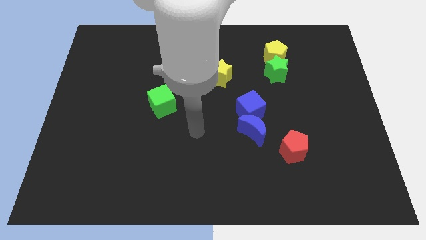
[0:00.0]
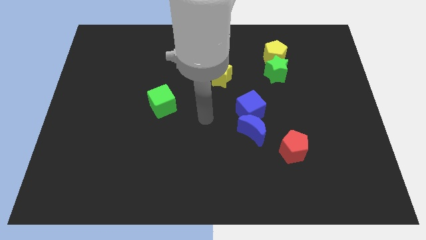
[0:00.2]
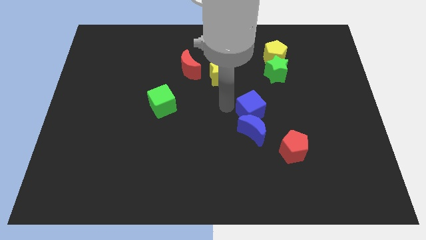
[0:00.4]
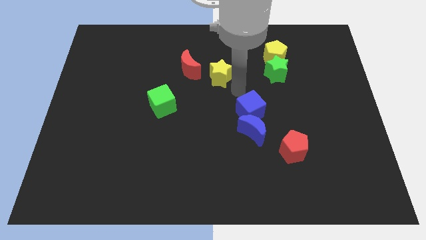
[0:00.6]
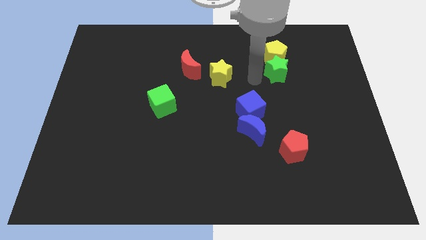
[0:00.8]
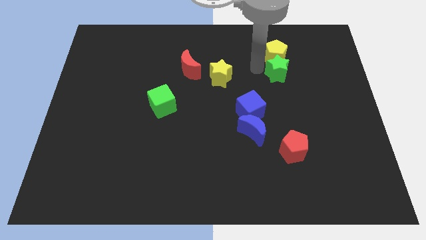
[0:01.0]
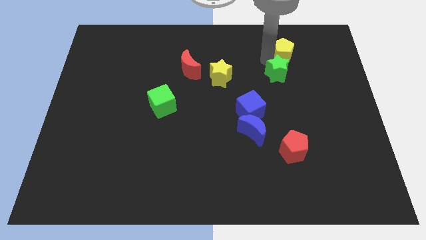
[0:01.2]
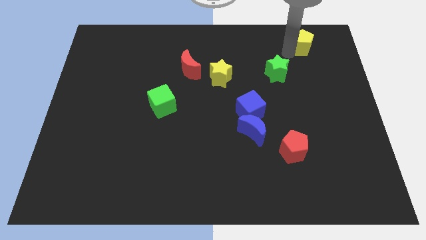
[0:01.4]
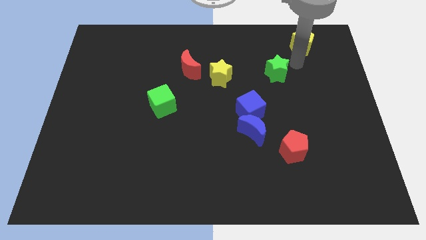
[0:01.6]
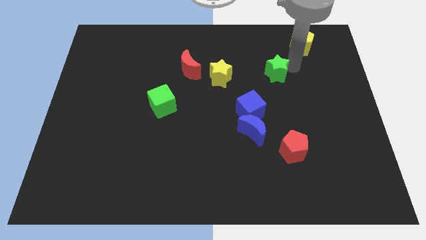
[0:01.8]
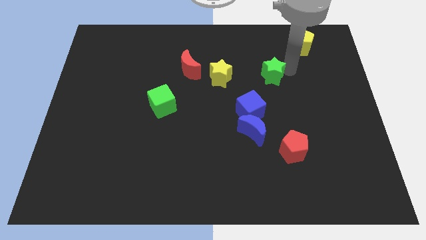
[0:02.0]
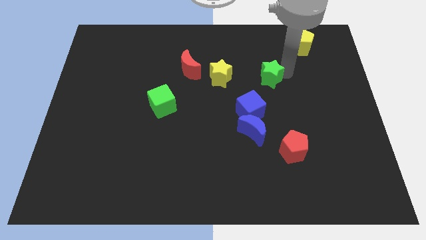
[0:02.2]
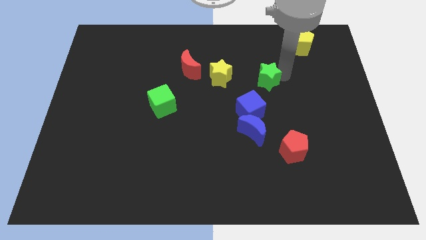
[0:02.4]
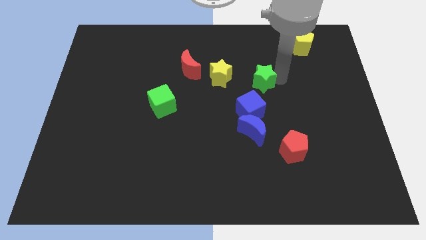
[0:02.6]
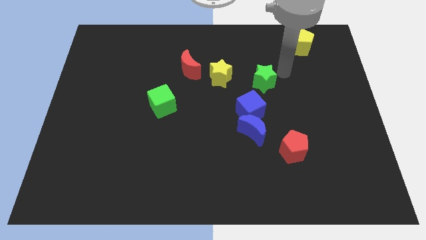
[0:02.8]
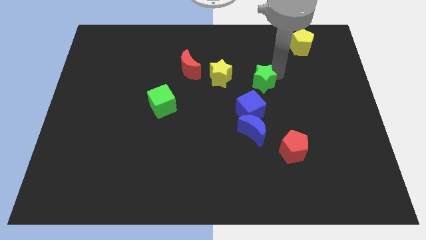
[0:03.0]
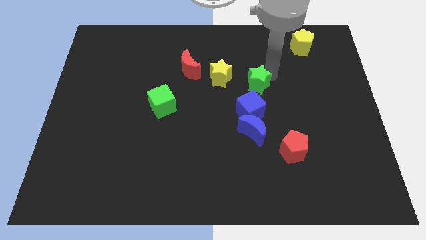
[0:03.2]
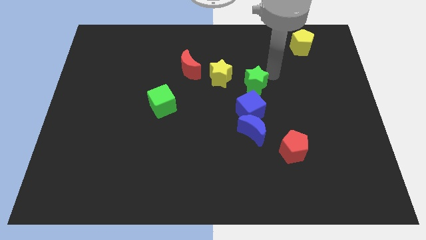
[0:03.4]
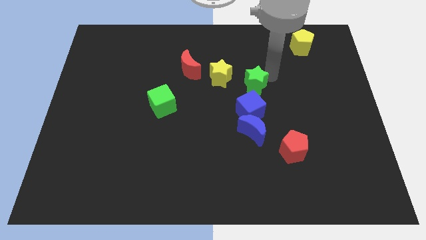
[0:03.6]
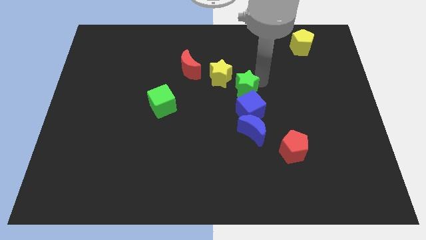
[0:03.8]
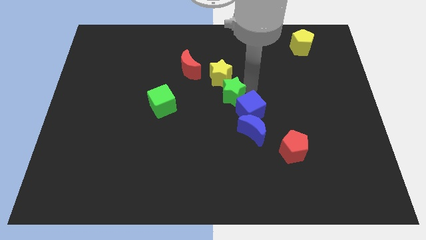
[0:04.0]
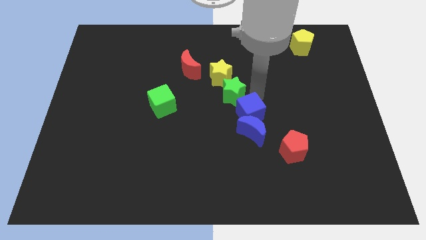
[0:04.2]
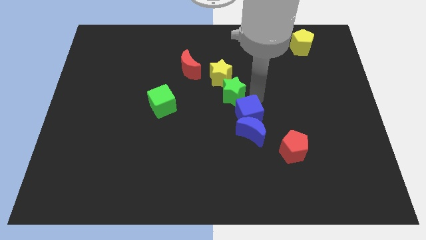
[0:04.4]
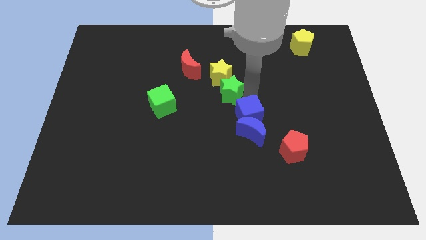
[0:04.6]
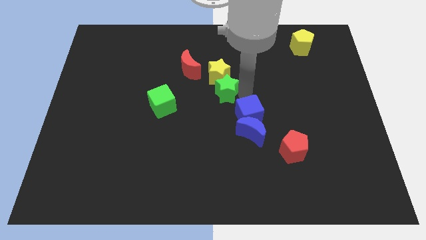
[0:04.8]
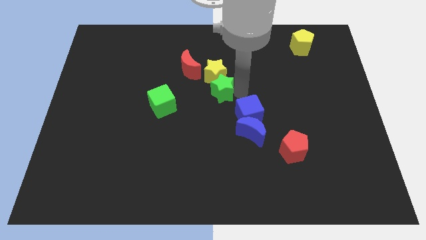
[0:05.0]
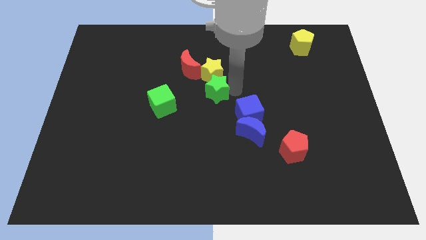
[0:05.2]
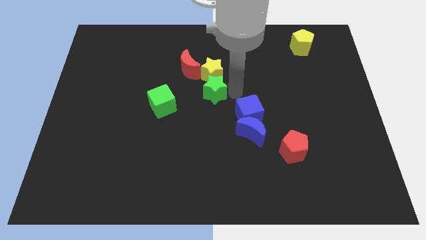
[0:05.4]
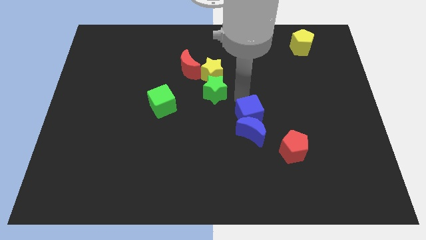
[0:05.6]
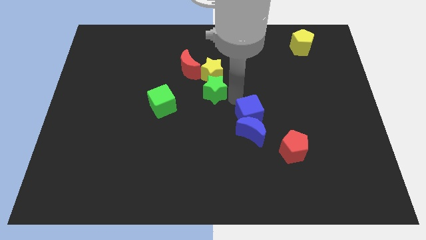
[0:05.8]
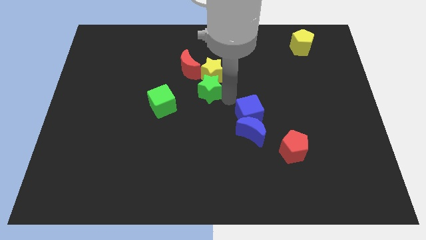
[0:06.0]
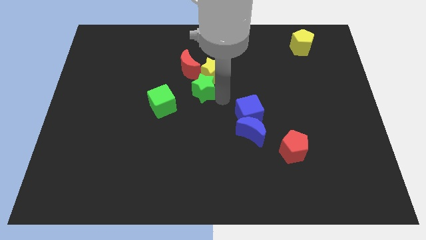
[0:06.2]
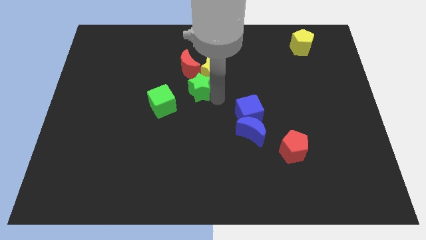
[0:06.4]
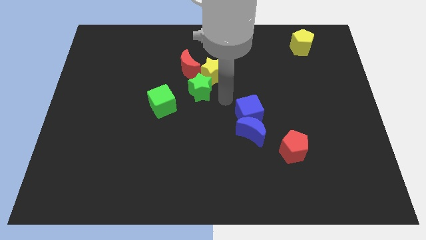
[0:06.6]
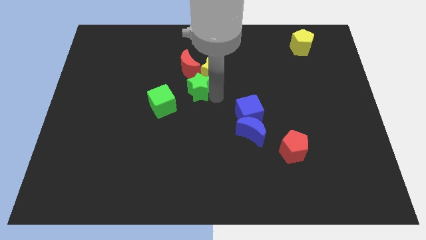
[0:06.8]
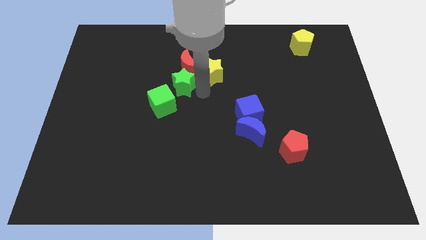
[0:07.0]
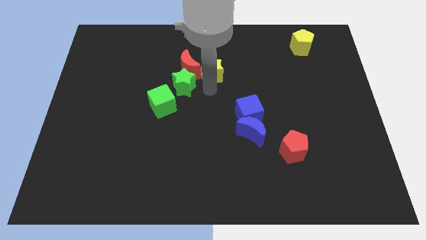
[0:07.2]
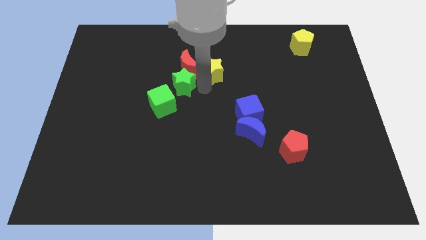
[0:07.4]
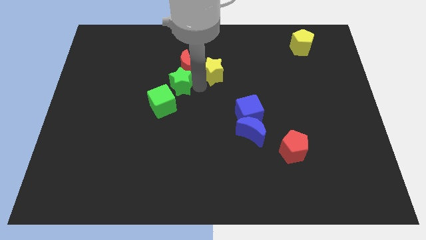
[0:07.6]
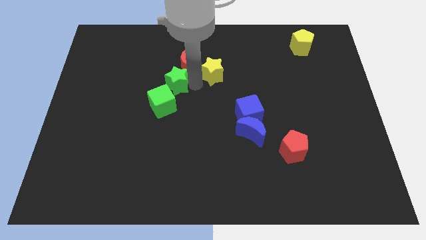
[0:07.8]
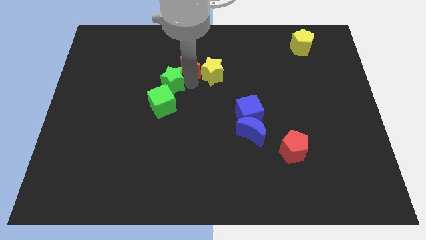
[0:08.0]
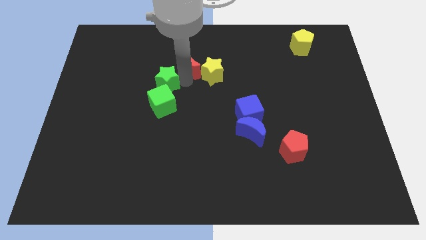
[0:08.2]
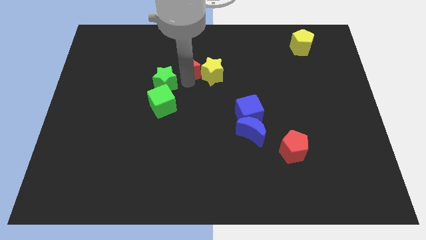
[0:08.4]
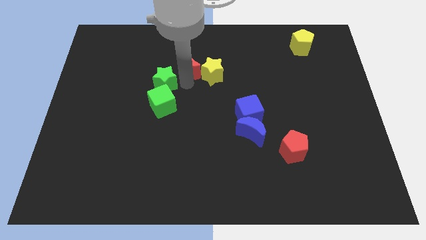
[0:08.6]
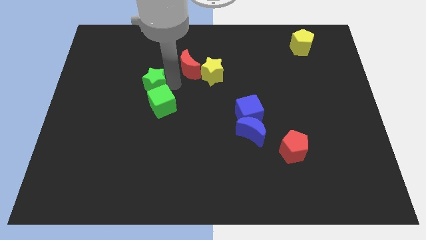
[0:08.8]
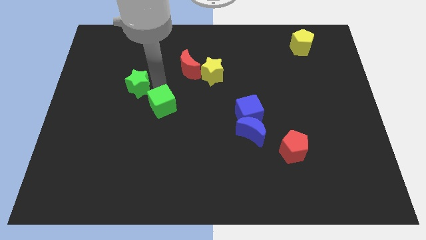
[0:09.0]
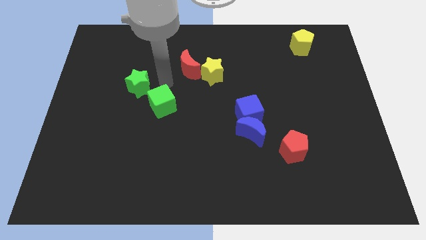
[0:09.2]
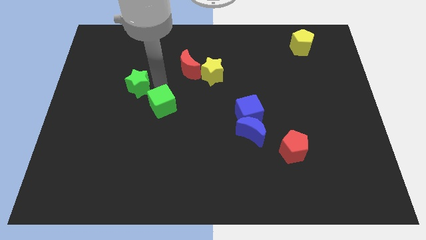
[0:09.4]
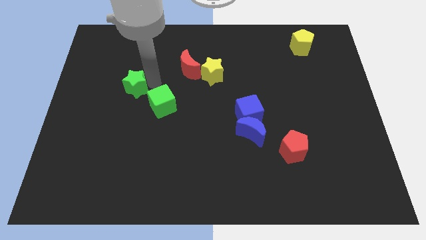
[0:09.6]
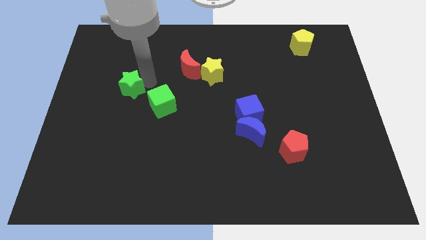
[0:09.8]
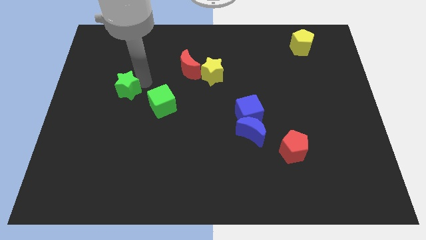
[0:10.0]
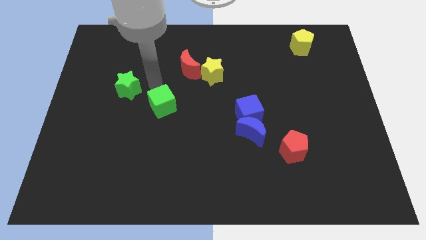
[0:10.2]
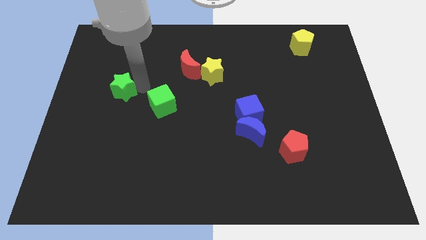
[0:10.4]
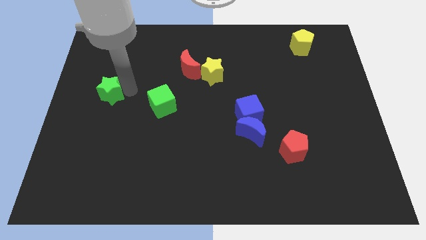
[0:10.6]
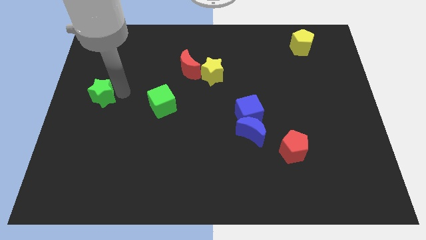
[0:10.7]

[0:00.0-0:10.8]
push the green star to the center left
